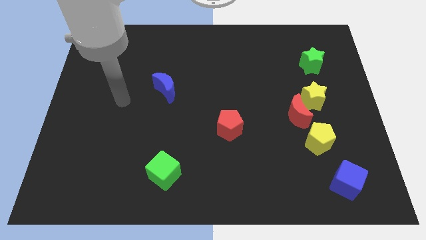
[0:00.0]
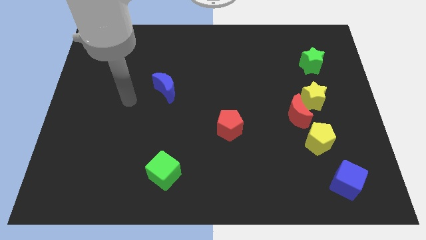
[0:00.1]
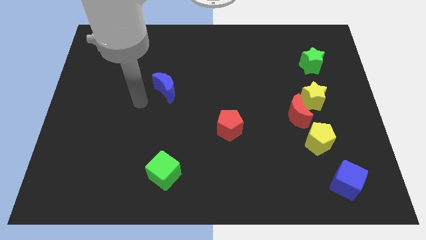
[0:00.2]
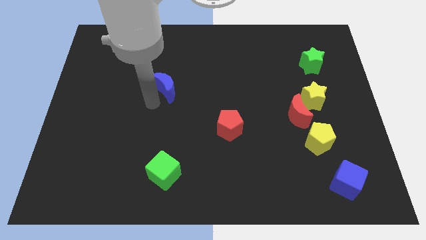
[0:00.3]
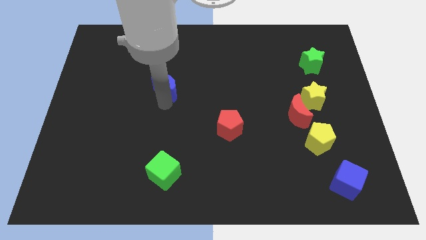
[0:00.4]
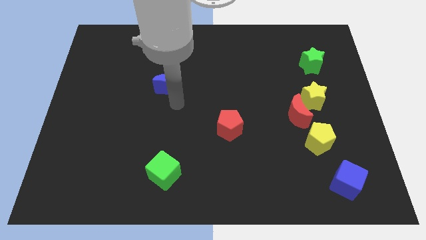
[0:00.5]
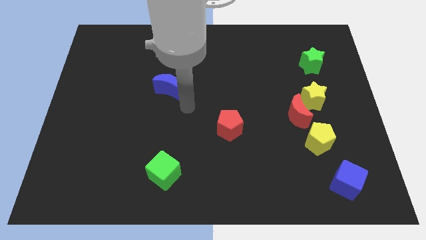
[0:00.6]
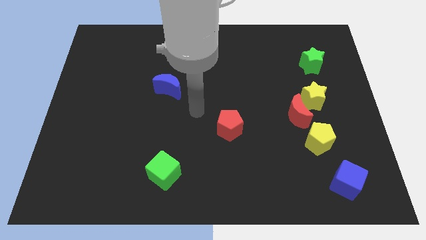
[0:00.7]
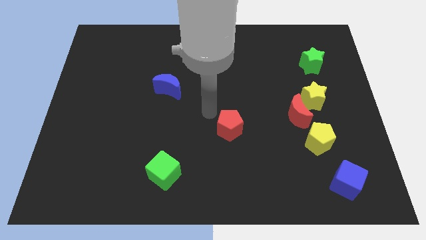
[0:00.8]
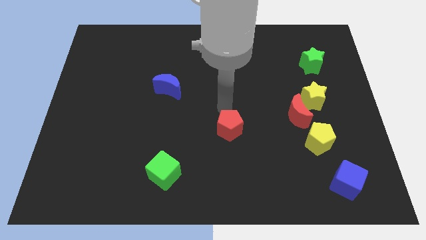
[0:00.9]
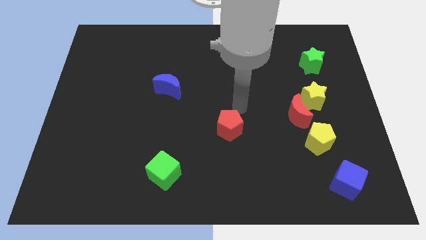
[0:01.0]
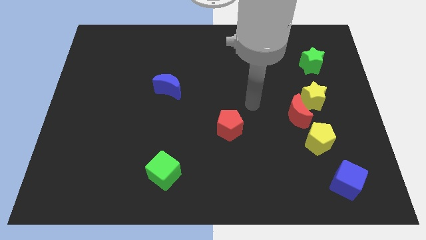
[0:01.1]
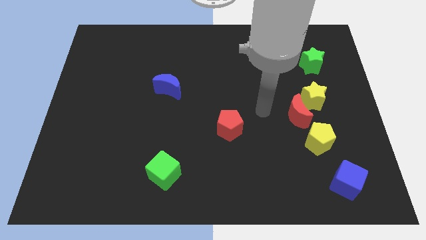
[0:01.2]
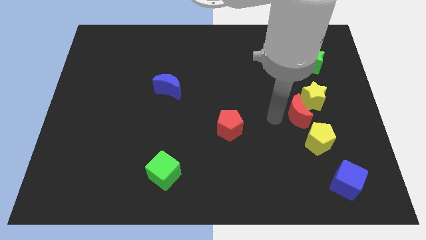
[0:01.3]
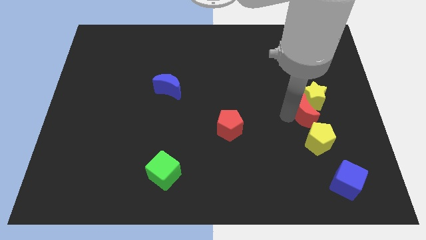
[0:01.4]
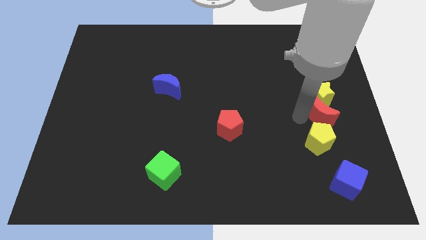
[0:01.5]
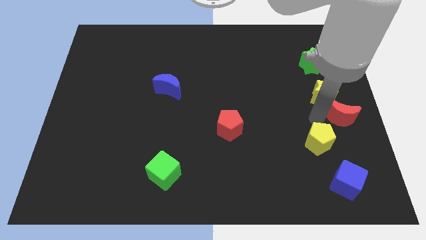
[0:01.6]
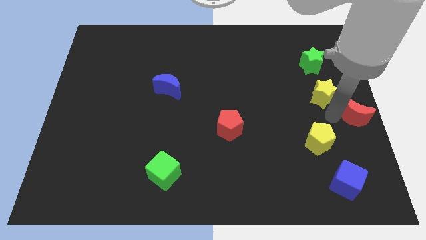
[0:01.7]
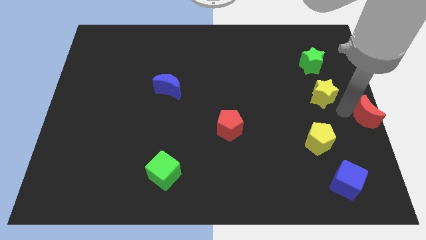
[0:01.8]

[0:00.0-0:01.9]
move the yellow star away from the red moon

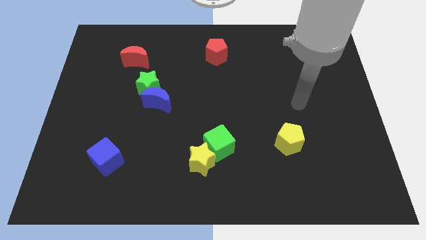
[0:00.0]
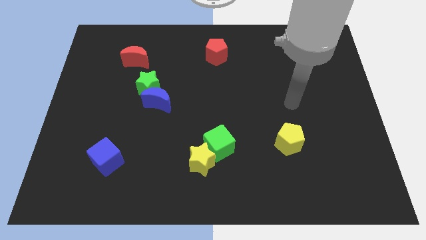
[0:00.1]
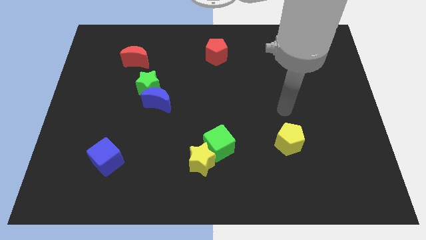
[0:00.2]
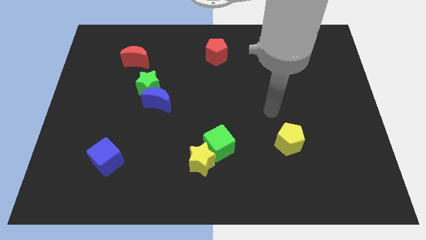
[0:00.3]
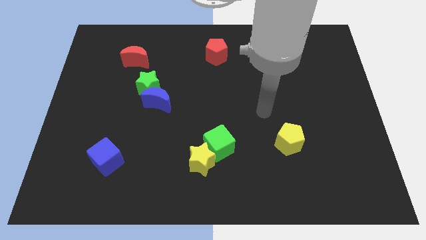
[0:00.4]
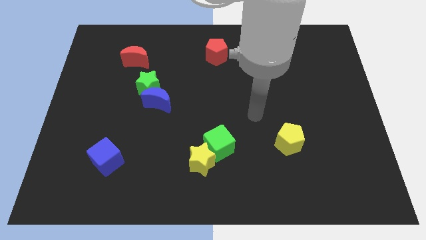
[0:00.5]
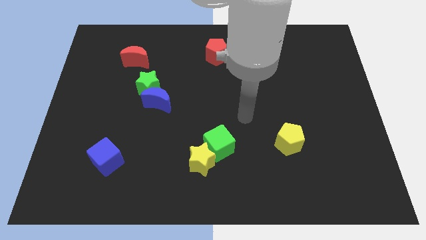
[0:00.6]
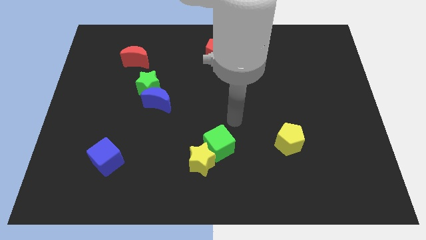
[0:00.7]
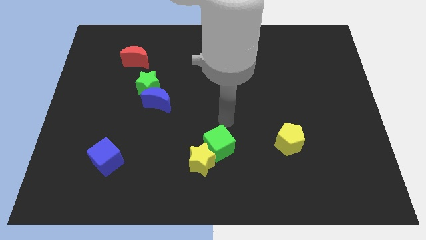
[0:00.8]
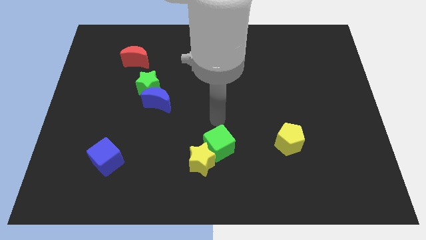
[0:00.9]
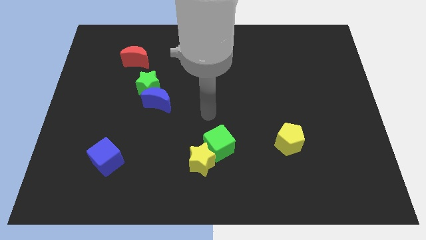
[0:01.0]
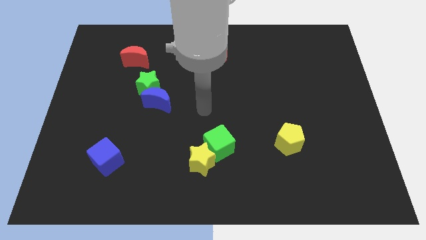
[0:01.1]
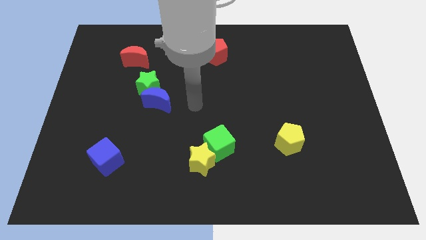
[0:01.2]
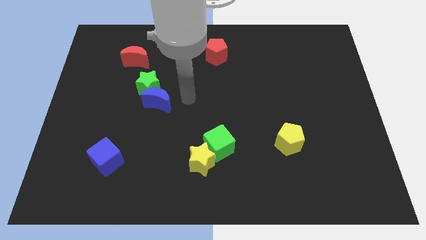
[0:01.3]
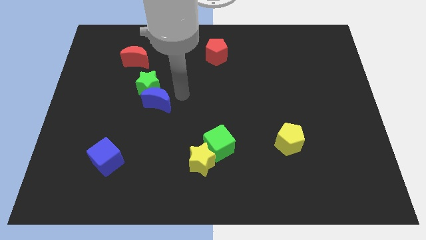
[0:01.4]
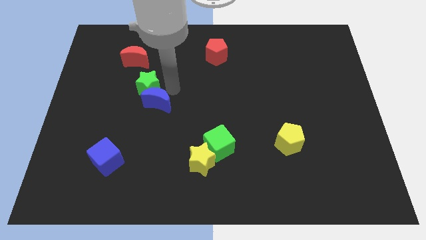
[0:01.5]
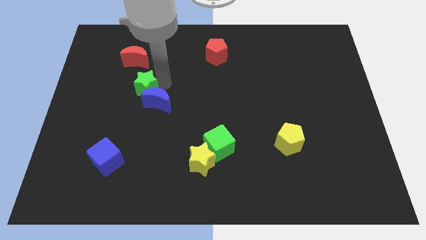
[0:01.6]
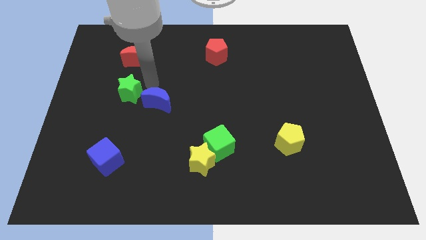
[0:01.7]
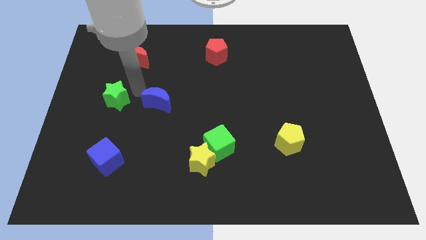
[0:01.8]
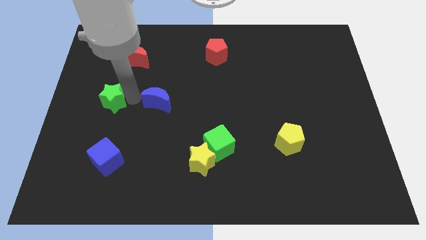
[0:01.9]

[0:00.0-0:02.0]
separate the blue moon from the green star

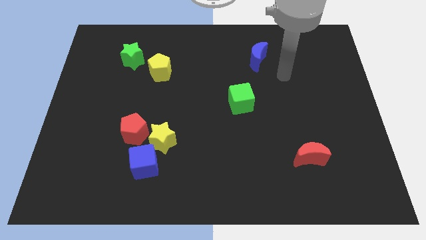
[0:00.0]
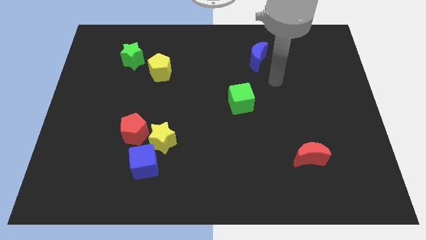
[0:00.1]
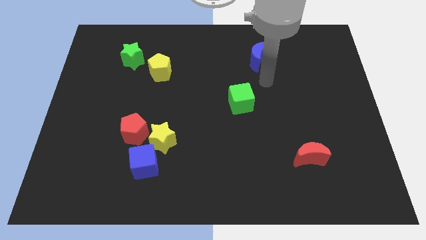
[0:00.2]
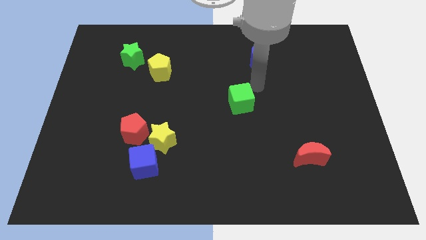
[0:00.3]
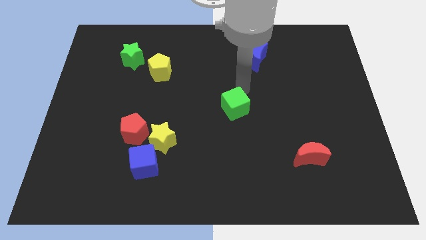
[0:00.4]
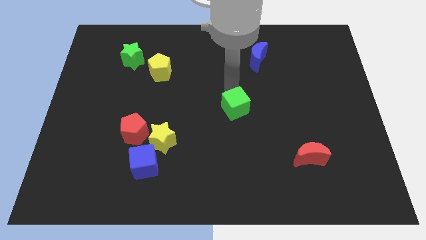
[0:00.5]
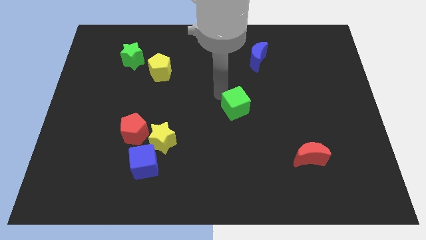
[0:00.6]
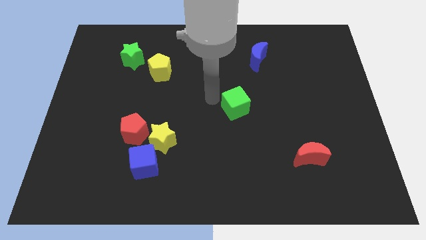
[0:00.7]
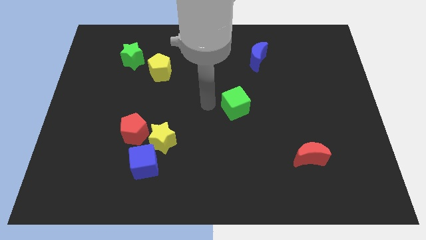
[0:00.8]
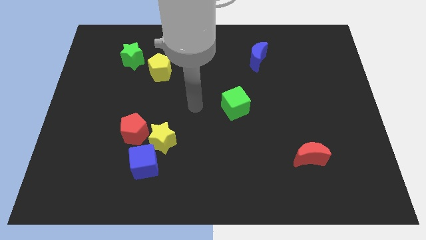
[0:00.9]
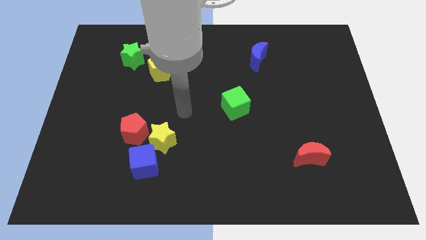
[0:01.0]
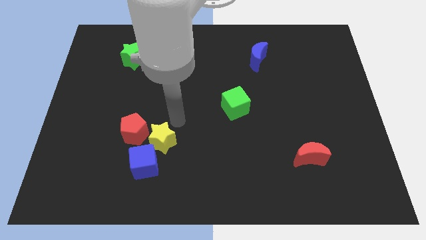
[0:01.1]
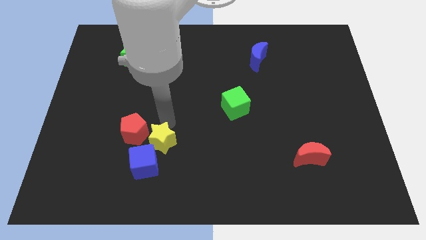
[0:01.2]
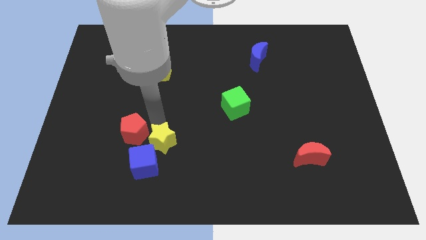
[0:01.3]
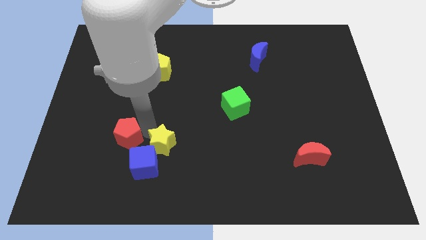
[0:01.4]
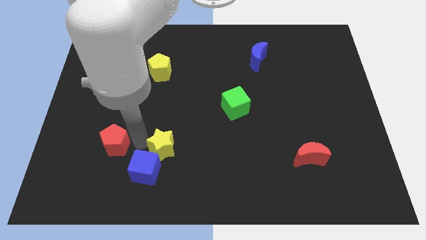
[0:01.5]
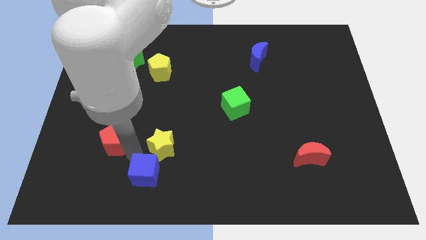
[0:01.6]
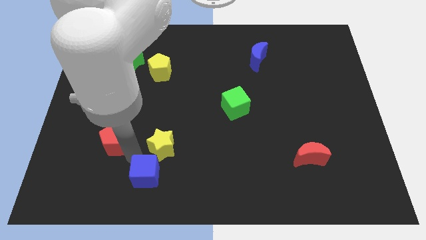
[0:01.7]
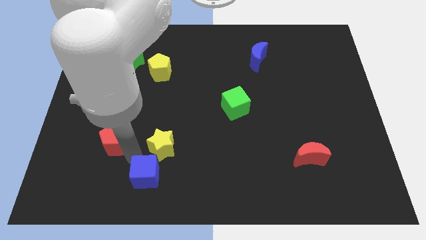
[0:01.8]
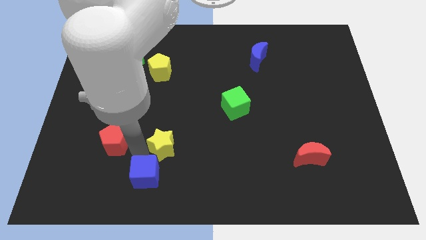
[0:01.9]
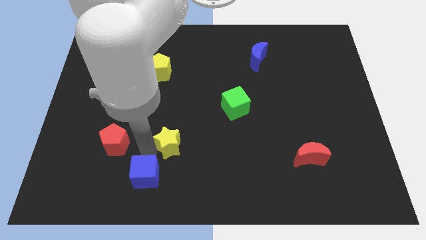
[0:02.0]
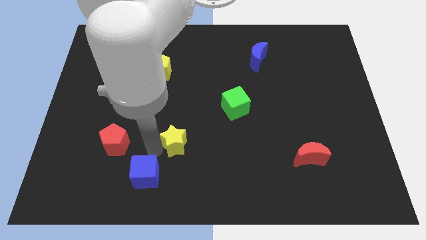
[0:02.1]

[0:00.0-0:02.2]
pull the yellow star apart from the red pentagon and blue cube

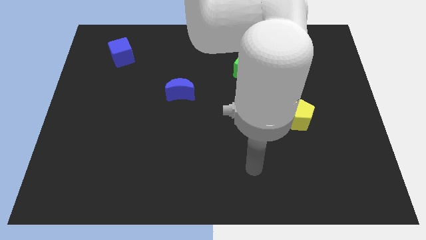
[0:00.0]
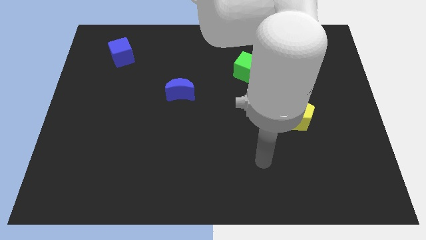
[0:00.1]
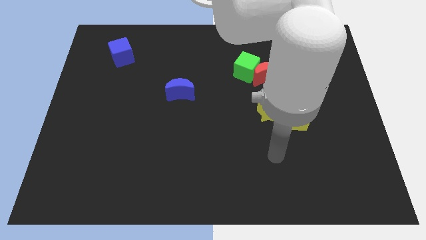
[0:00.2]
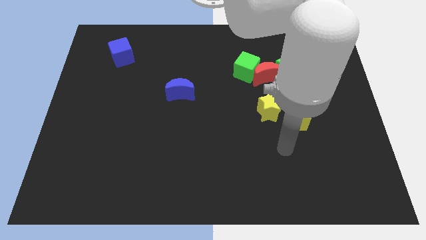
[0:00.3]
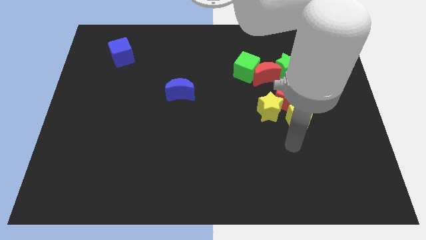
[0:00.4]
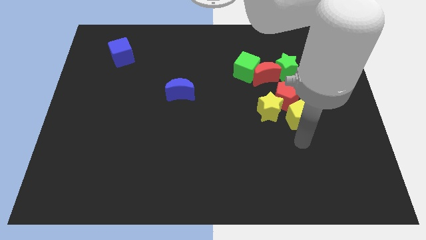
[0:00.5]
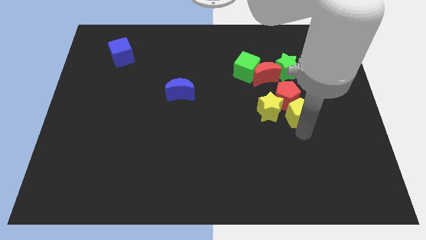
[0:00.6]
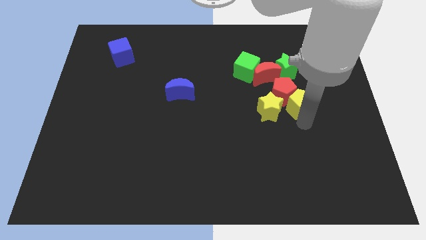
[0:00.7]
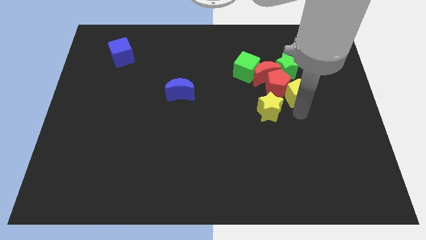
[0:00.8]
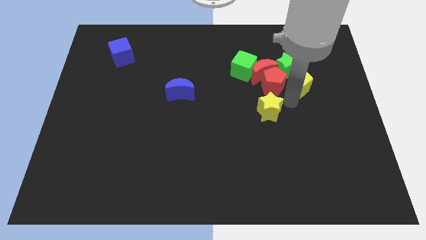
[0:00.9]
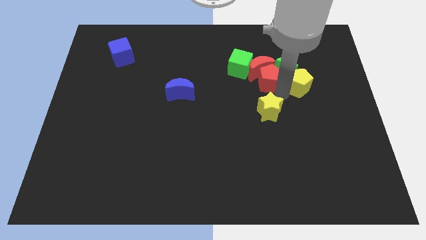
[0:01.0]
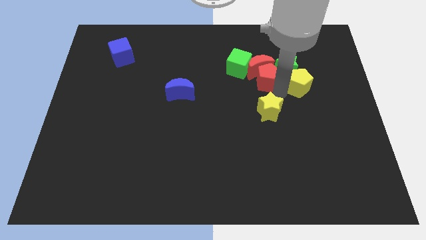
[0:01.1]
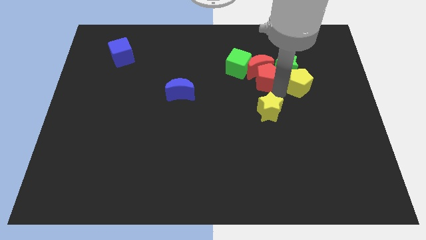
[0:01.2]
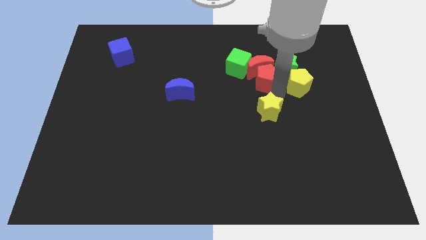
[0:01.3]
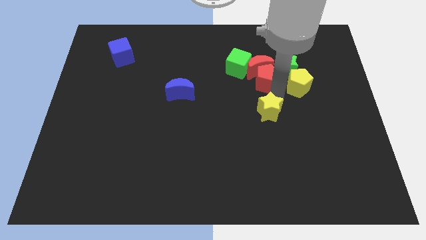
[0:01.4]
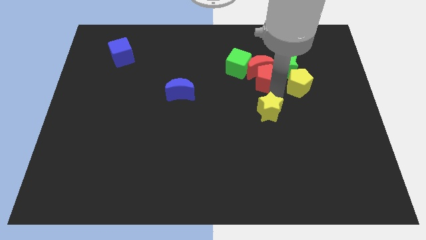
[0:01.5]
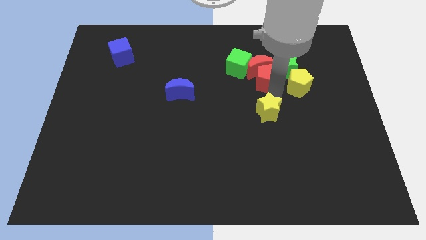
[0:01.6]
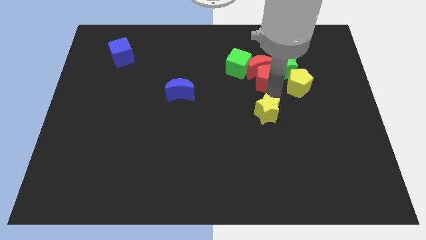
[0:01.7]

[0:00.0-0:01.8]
move the yellow star away from the red pentagon and yellow pentagon

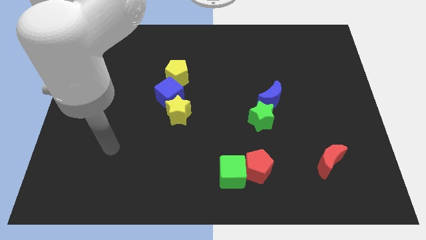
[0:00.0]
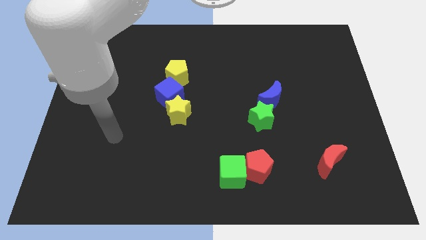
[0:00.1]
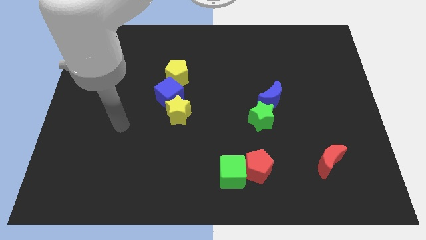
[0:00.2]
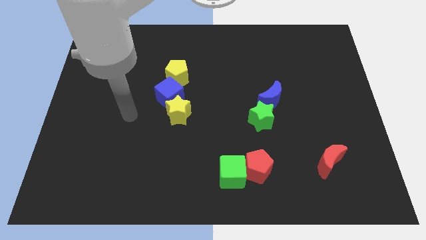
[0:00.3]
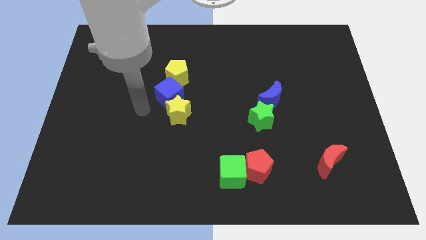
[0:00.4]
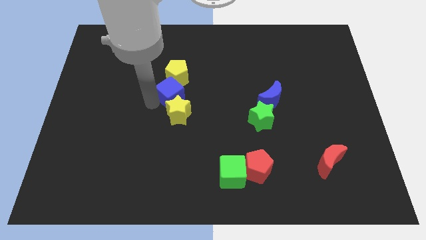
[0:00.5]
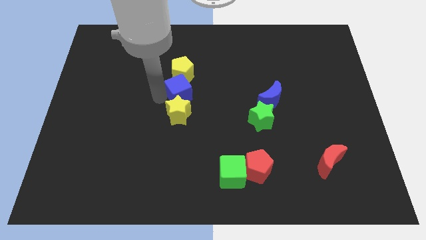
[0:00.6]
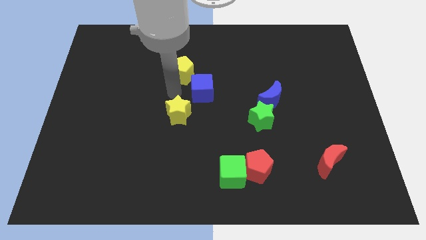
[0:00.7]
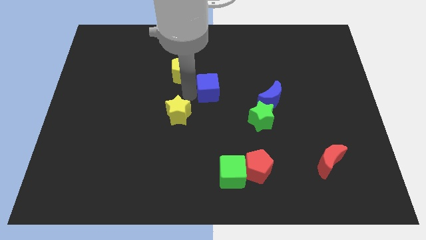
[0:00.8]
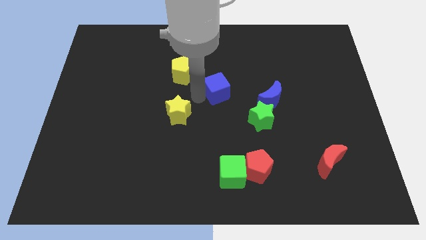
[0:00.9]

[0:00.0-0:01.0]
move the yellow star away from the blue cube

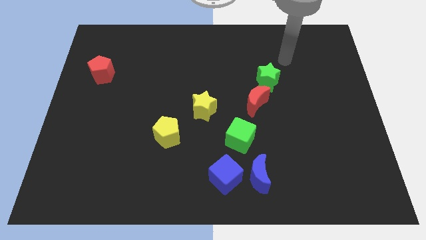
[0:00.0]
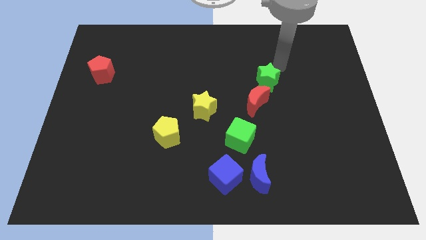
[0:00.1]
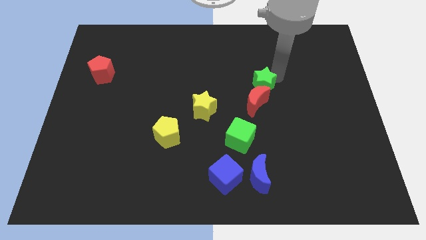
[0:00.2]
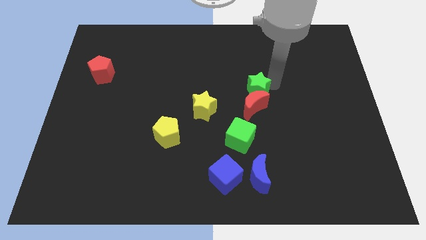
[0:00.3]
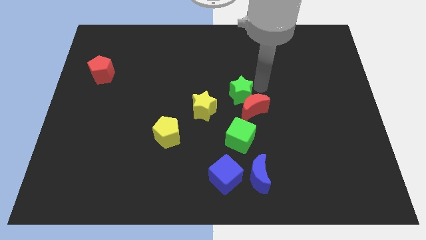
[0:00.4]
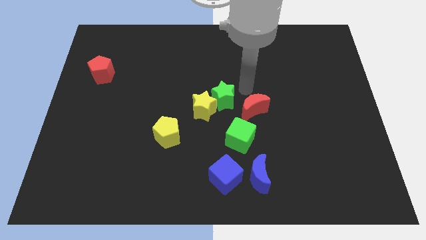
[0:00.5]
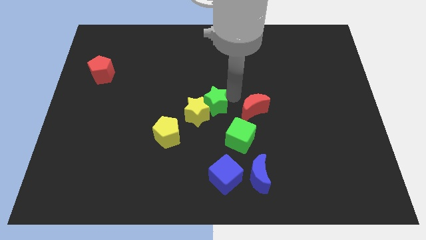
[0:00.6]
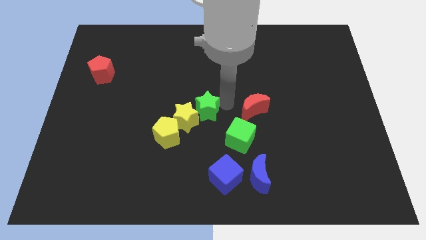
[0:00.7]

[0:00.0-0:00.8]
move the red moon away from the green star
